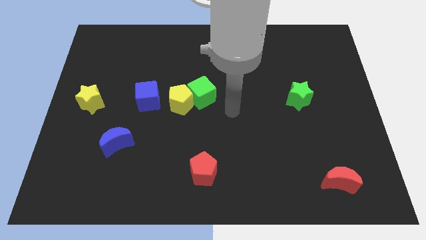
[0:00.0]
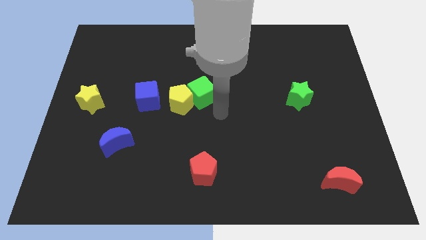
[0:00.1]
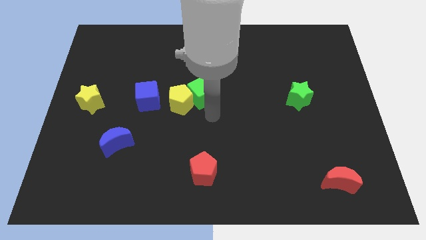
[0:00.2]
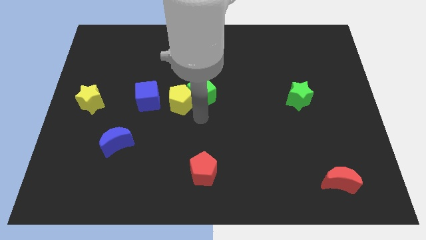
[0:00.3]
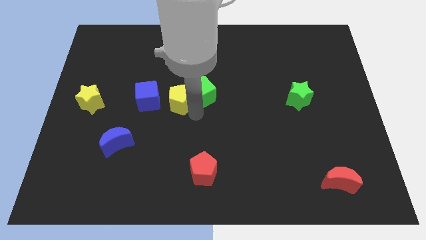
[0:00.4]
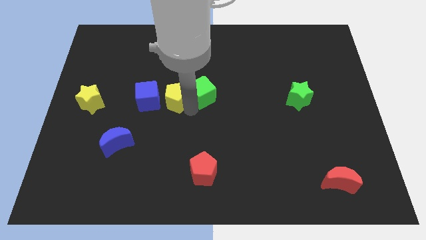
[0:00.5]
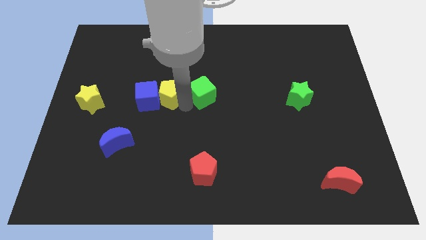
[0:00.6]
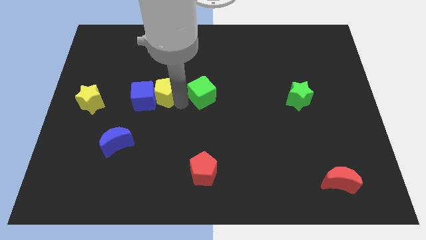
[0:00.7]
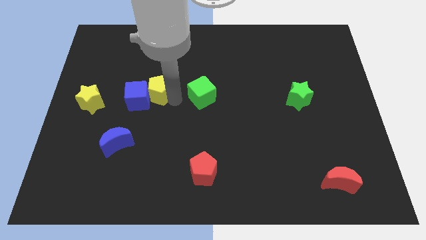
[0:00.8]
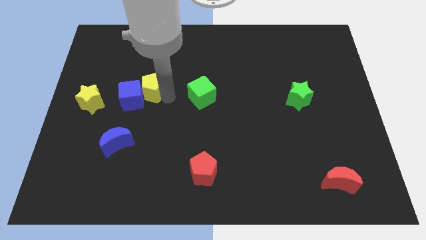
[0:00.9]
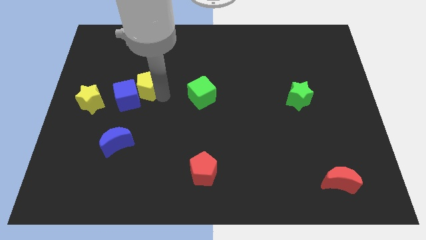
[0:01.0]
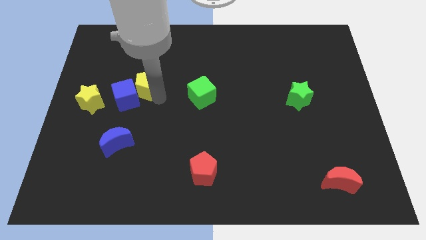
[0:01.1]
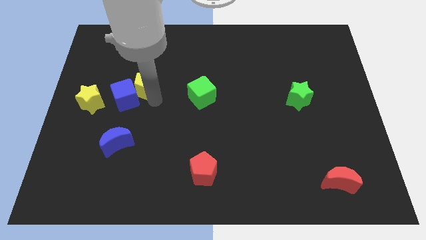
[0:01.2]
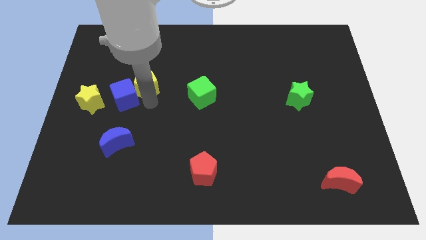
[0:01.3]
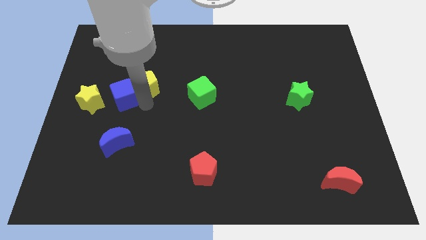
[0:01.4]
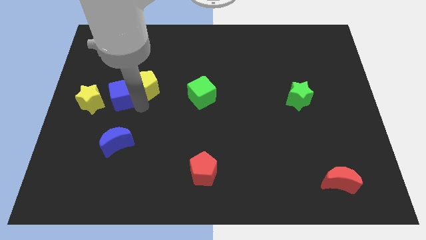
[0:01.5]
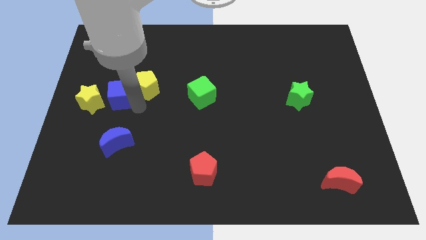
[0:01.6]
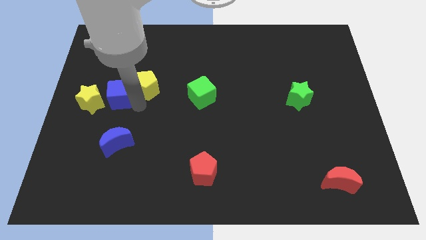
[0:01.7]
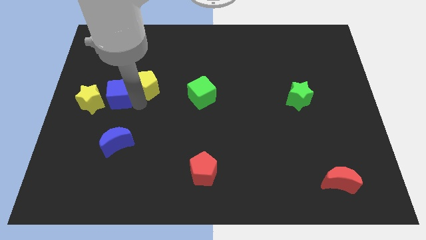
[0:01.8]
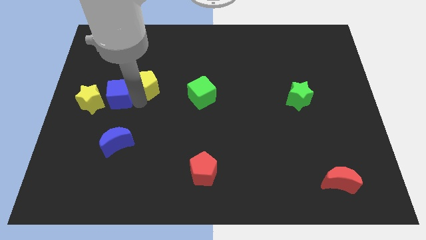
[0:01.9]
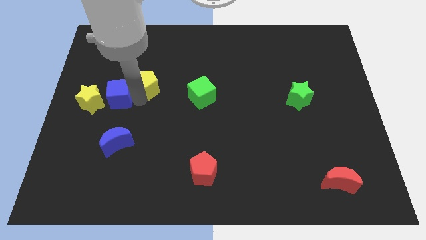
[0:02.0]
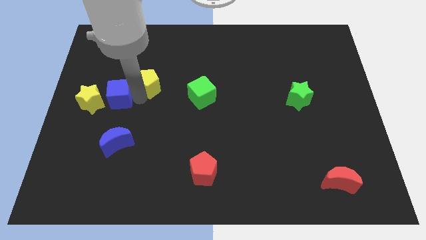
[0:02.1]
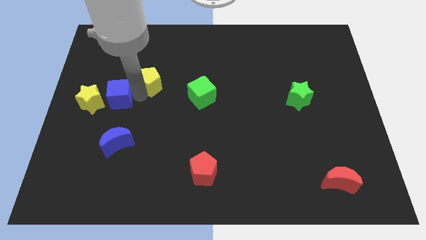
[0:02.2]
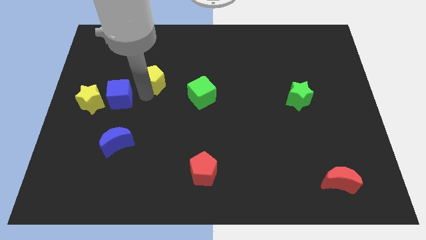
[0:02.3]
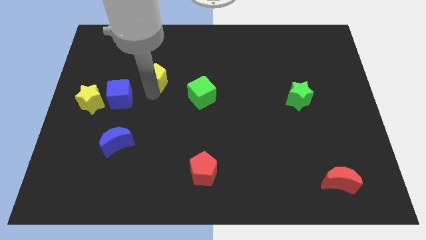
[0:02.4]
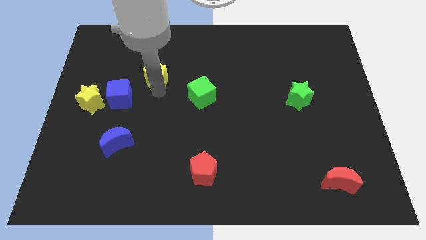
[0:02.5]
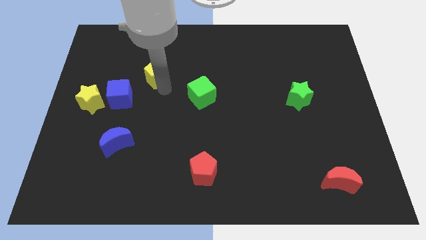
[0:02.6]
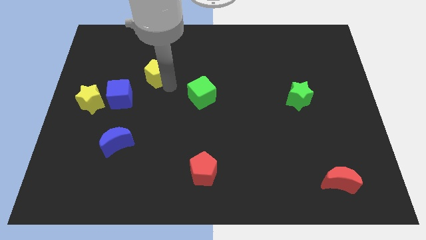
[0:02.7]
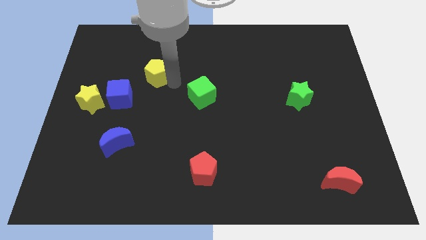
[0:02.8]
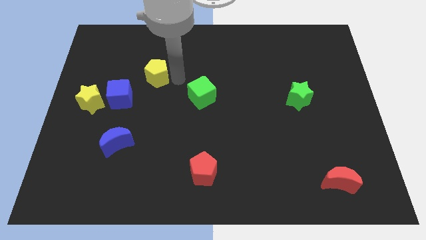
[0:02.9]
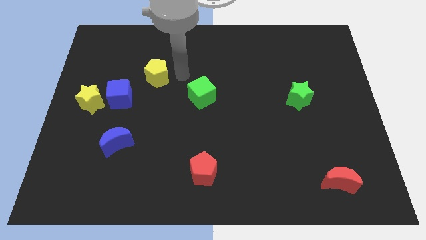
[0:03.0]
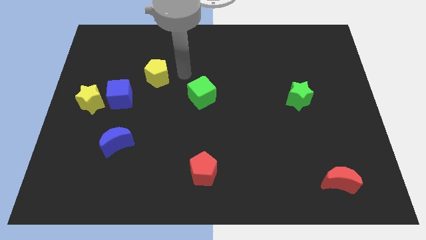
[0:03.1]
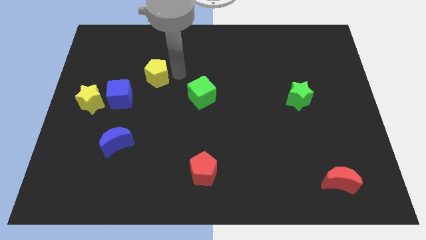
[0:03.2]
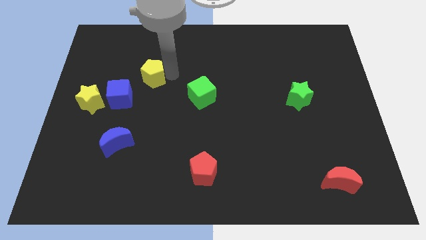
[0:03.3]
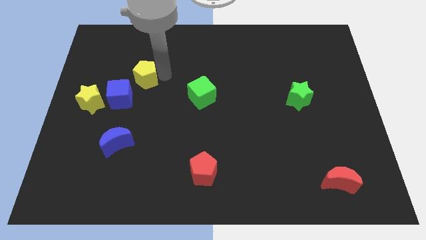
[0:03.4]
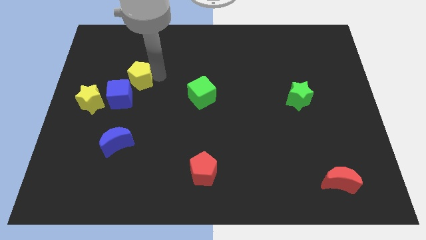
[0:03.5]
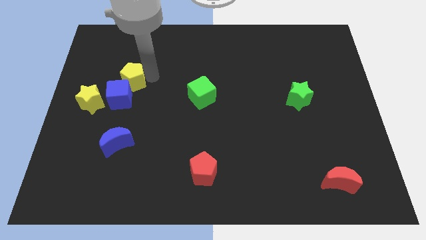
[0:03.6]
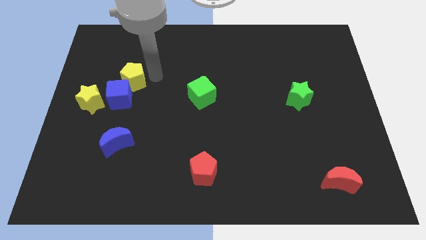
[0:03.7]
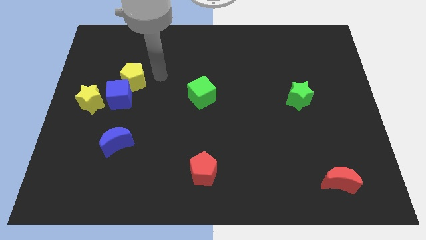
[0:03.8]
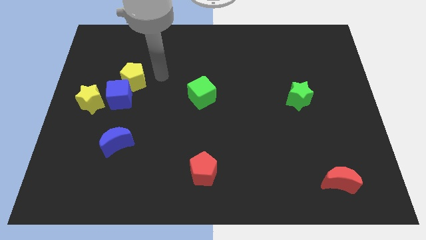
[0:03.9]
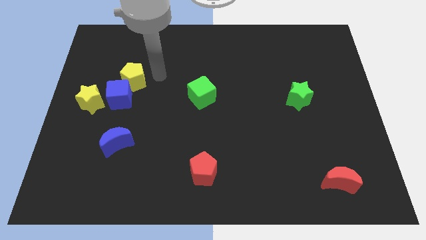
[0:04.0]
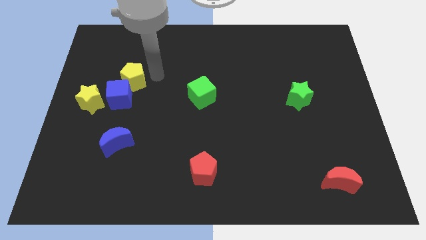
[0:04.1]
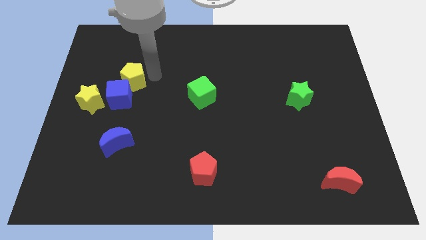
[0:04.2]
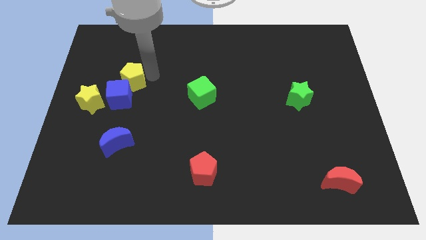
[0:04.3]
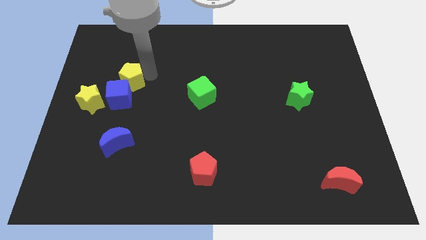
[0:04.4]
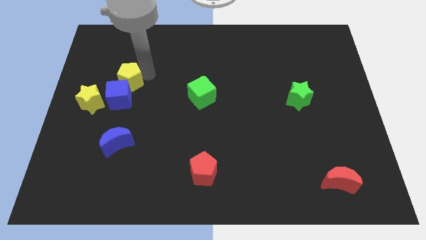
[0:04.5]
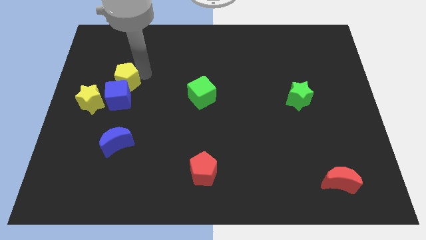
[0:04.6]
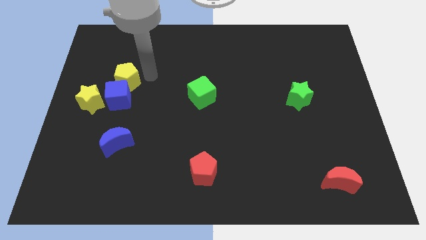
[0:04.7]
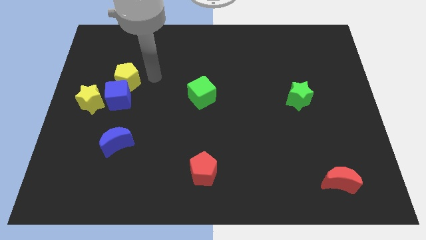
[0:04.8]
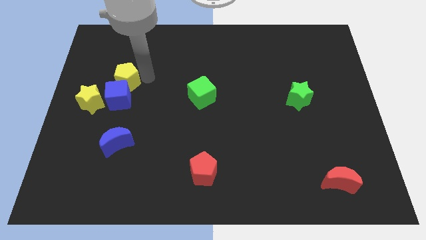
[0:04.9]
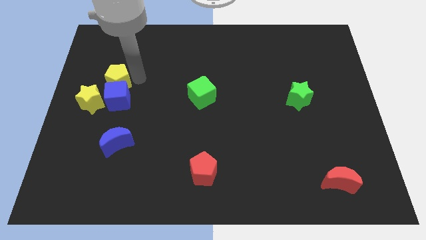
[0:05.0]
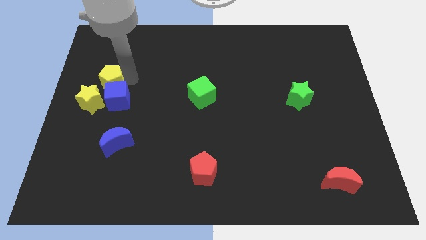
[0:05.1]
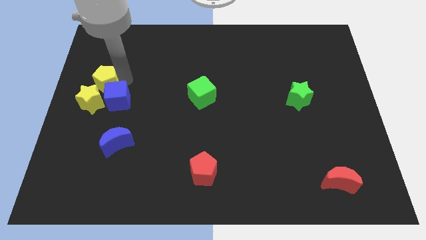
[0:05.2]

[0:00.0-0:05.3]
move the yellow pentagon to the left side

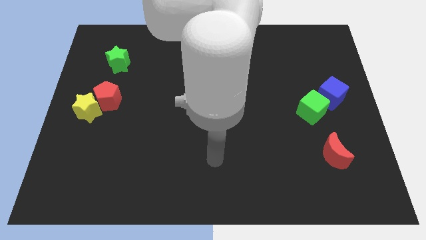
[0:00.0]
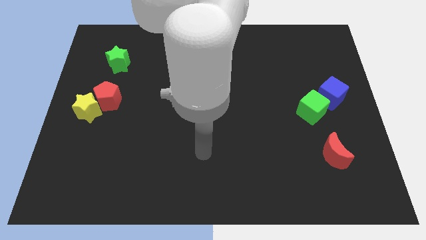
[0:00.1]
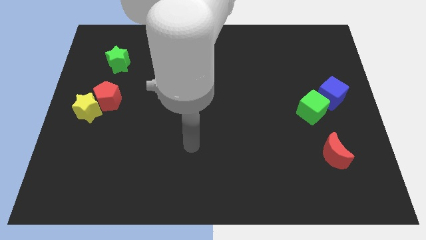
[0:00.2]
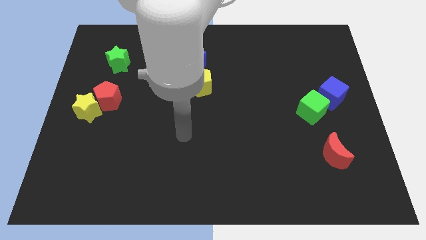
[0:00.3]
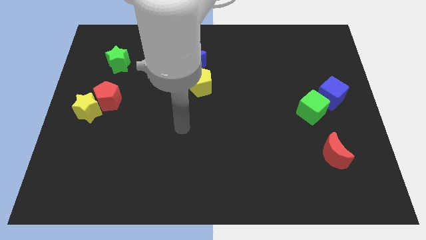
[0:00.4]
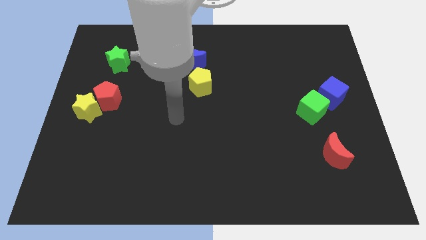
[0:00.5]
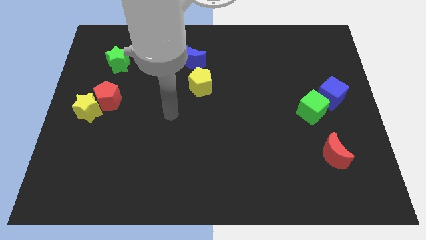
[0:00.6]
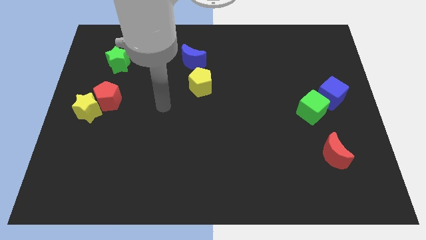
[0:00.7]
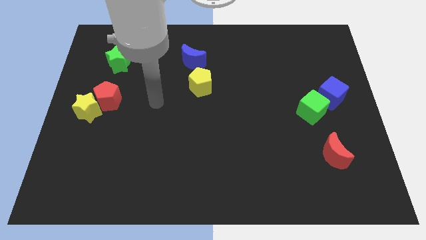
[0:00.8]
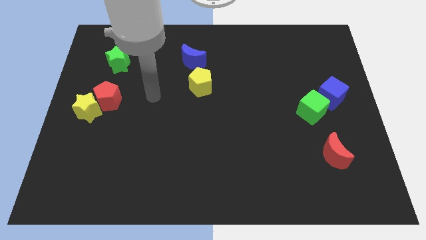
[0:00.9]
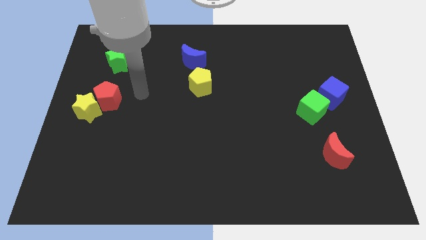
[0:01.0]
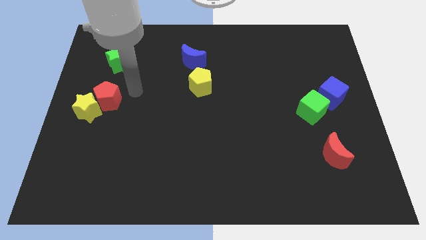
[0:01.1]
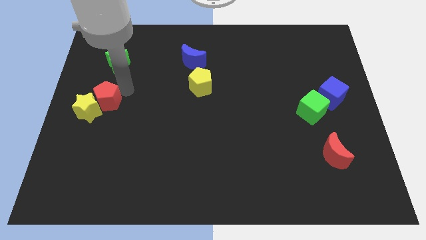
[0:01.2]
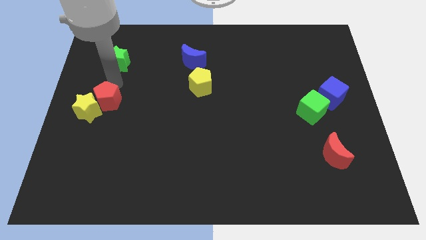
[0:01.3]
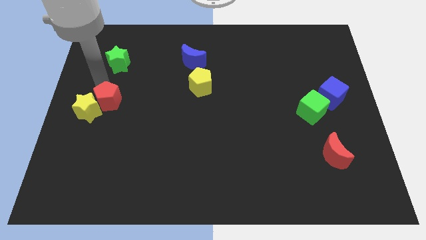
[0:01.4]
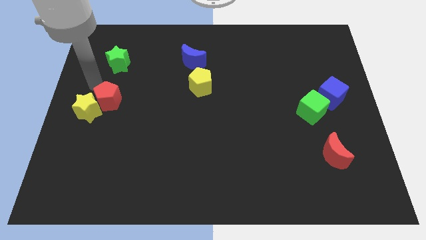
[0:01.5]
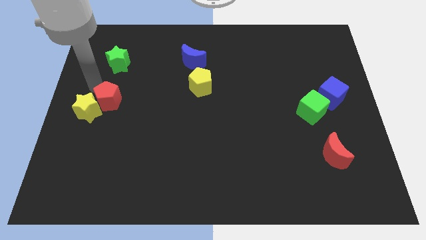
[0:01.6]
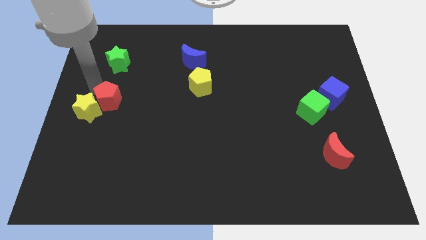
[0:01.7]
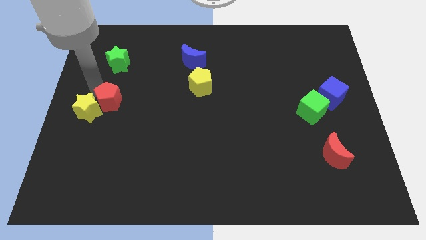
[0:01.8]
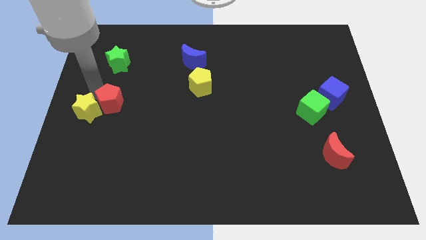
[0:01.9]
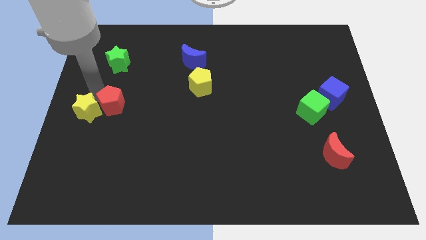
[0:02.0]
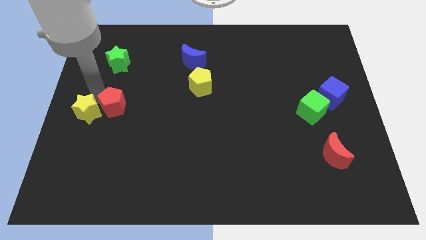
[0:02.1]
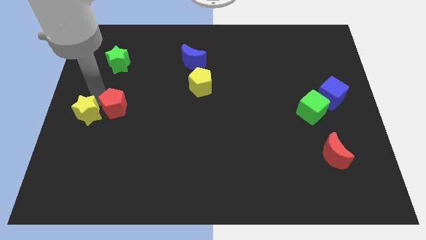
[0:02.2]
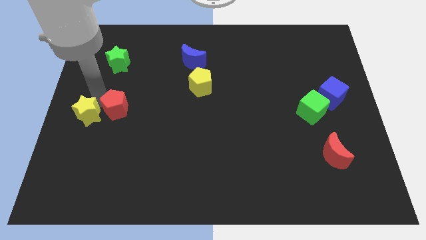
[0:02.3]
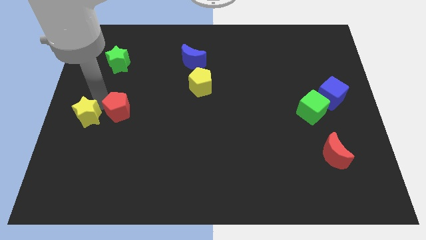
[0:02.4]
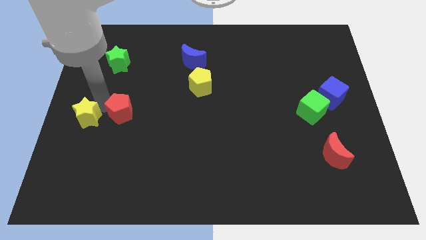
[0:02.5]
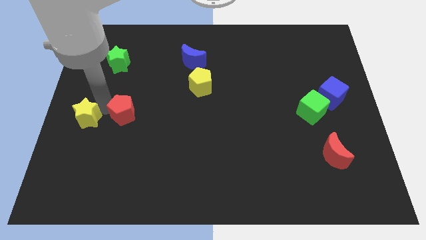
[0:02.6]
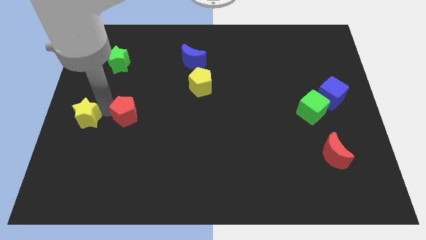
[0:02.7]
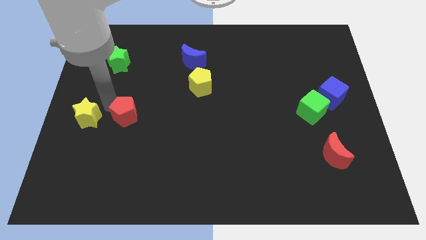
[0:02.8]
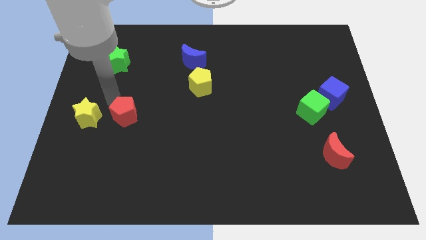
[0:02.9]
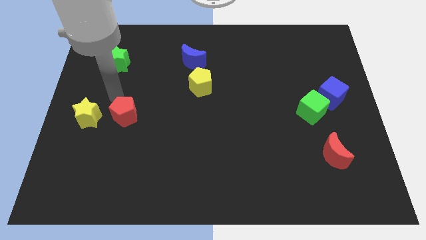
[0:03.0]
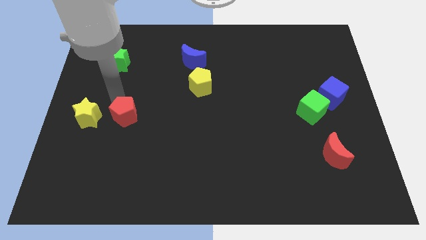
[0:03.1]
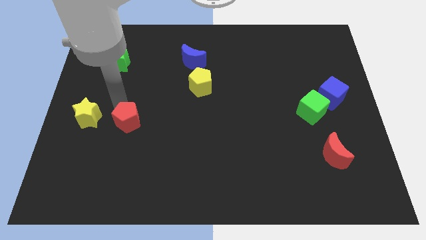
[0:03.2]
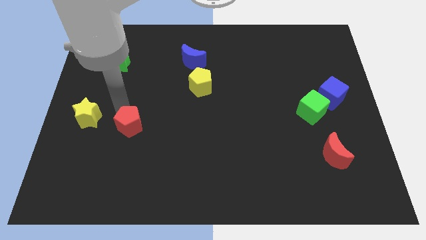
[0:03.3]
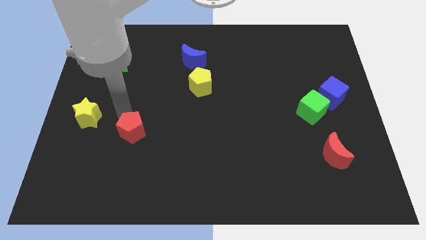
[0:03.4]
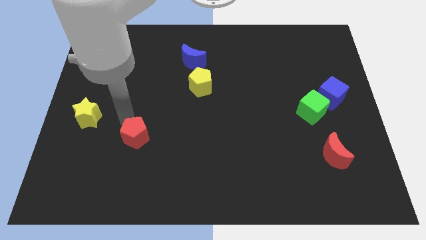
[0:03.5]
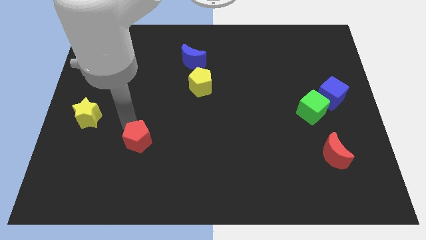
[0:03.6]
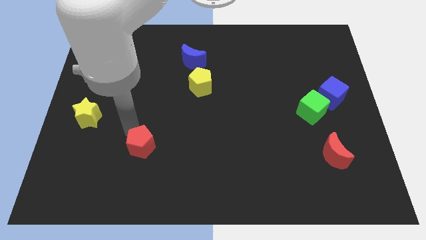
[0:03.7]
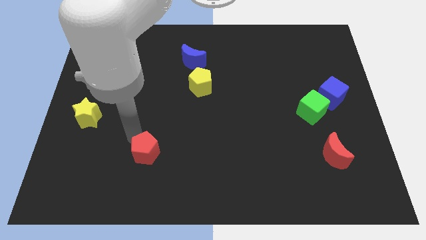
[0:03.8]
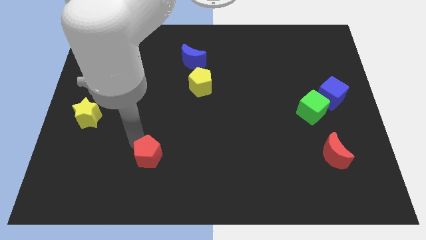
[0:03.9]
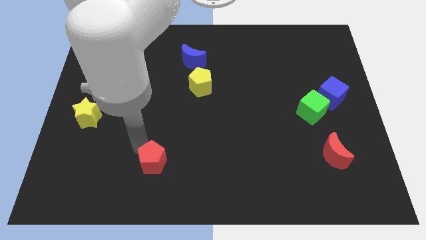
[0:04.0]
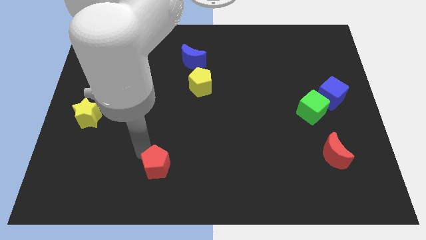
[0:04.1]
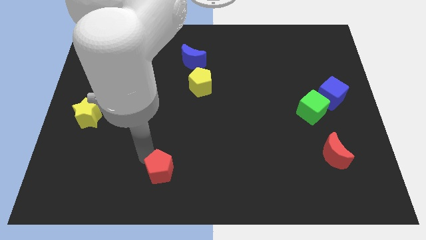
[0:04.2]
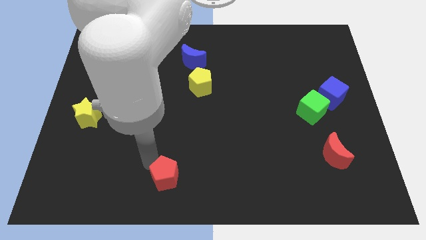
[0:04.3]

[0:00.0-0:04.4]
put the red pentagon to the bottom side
